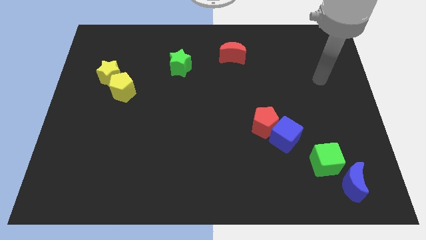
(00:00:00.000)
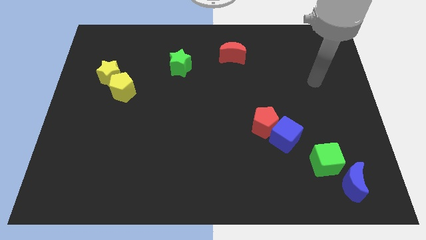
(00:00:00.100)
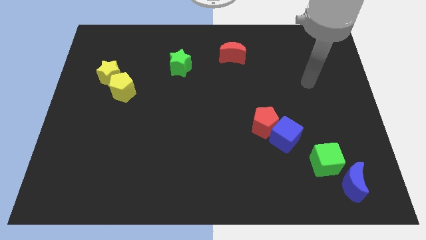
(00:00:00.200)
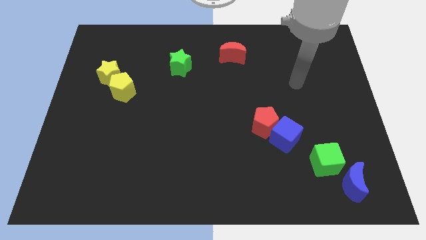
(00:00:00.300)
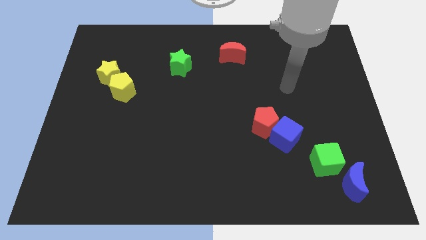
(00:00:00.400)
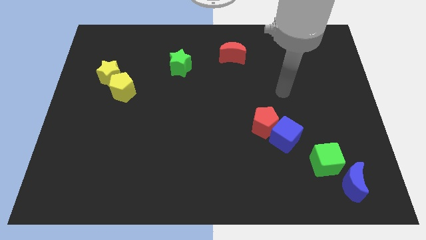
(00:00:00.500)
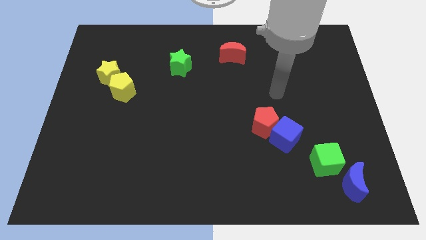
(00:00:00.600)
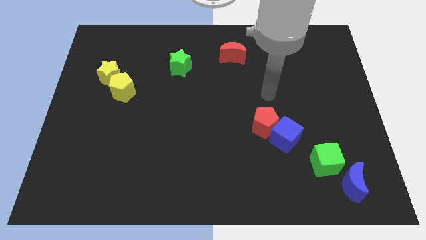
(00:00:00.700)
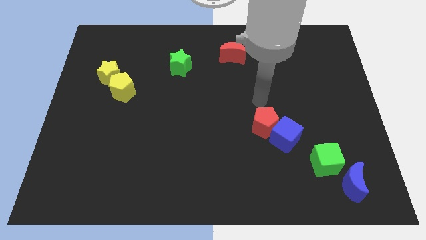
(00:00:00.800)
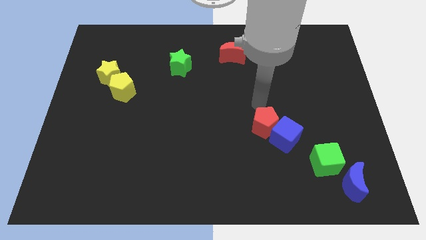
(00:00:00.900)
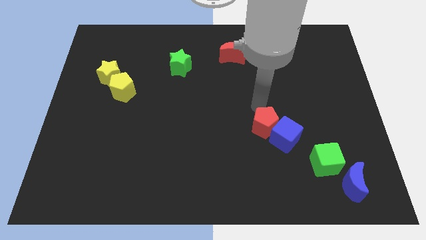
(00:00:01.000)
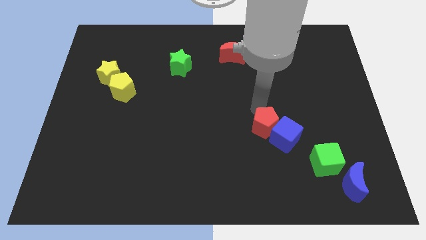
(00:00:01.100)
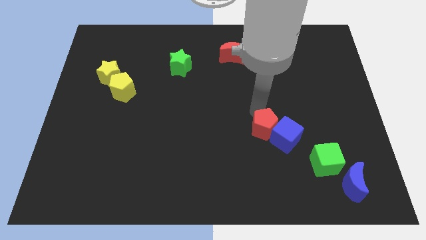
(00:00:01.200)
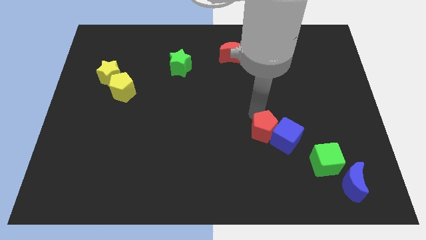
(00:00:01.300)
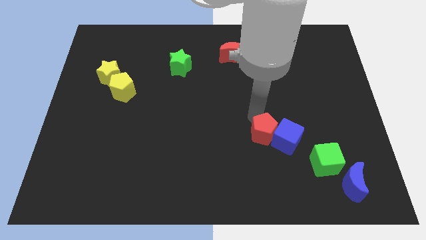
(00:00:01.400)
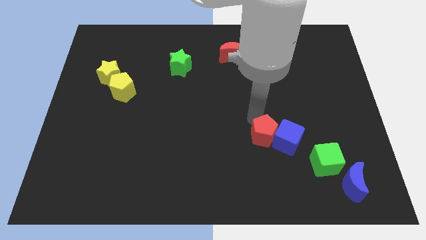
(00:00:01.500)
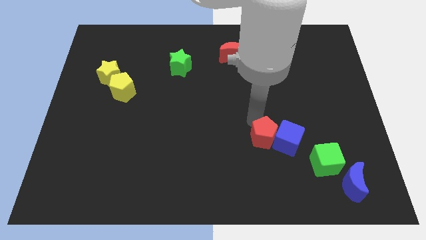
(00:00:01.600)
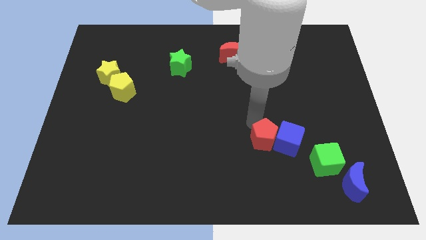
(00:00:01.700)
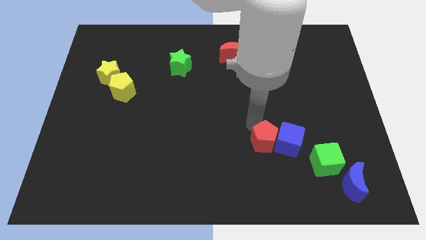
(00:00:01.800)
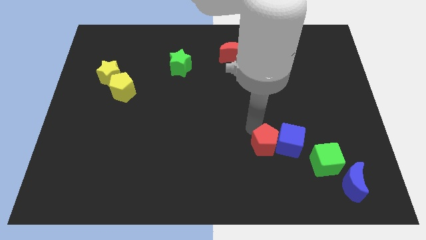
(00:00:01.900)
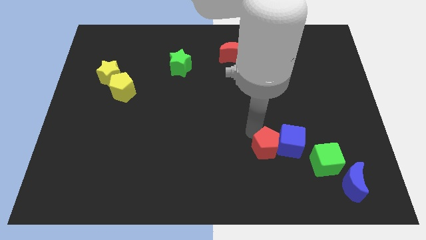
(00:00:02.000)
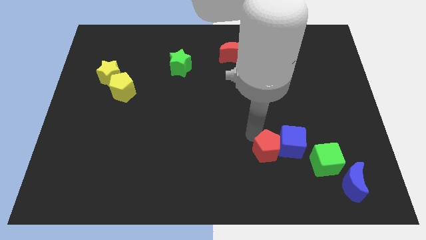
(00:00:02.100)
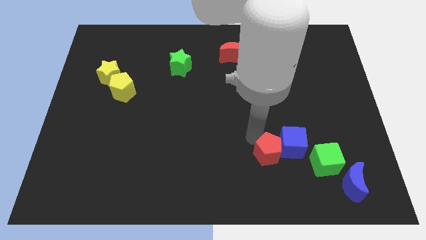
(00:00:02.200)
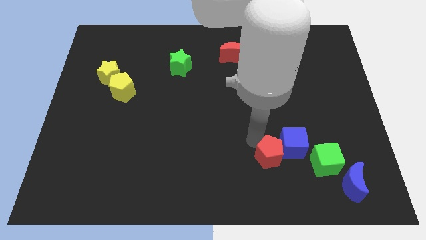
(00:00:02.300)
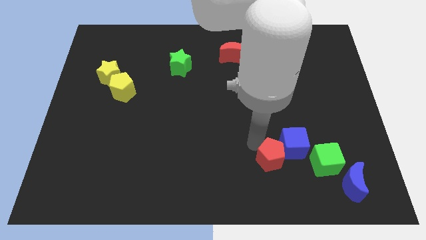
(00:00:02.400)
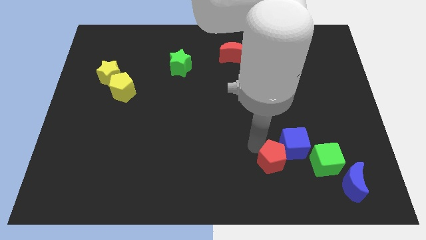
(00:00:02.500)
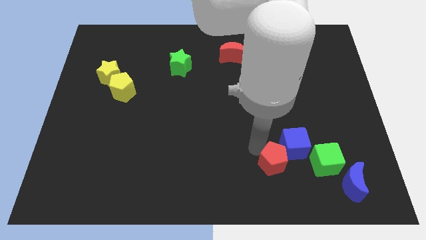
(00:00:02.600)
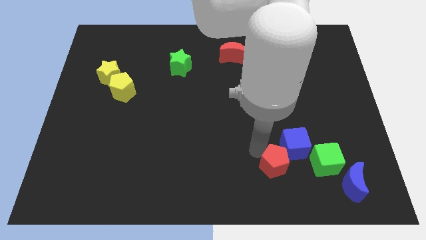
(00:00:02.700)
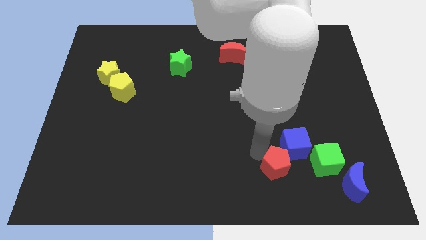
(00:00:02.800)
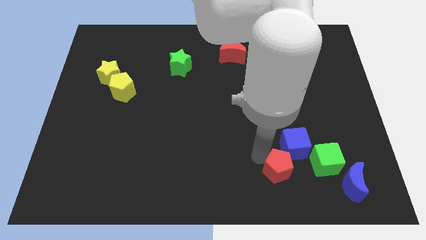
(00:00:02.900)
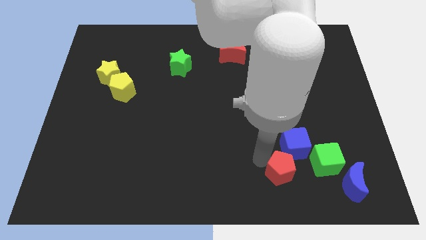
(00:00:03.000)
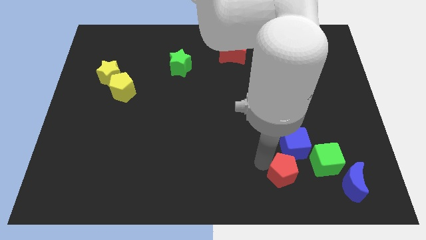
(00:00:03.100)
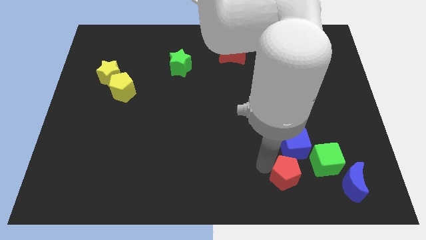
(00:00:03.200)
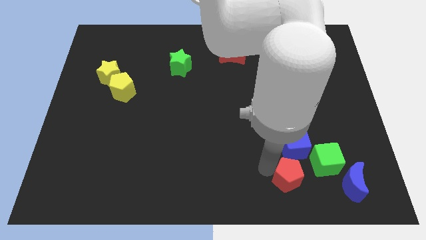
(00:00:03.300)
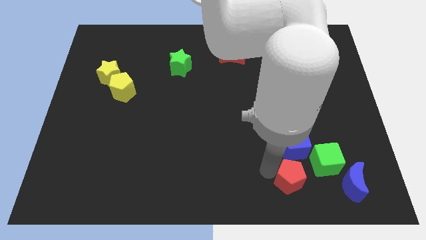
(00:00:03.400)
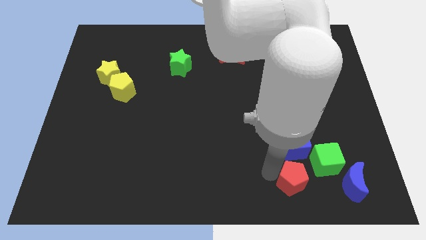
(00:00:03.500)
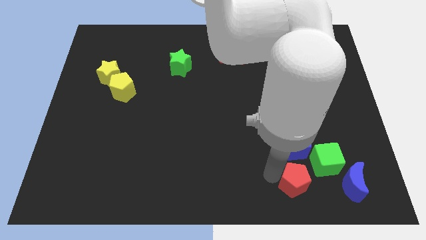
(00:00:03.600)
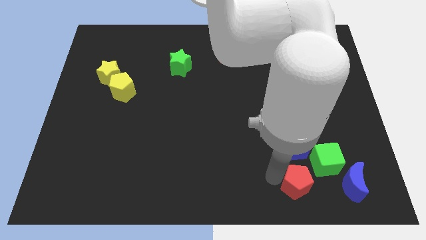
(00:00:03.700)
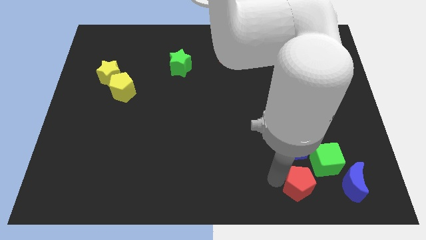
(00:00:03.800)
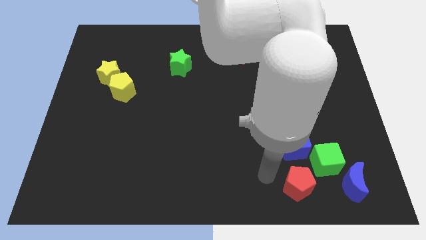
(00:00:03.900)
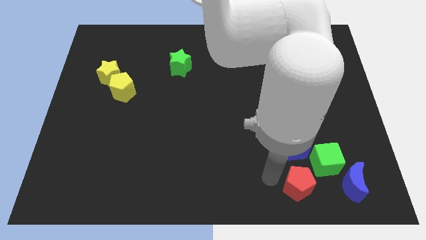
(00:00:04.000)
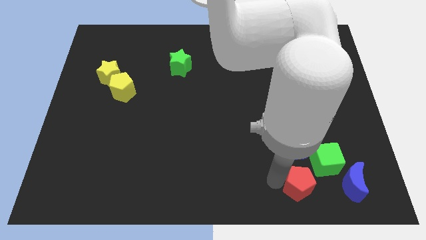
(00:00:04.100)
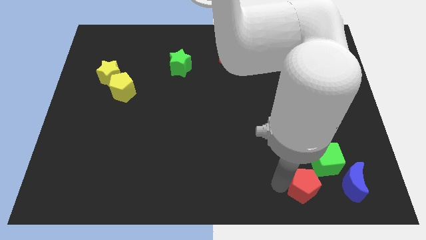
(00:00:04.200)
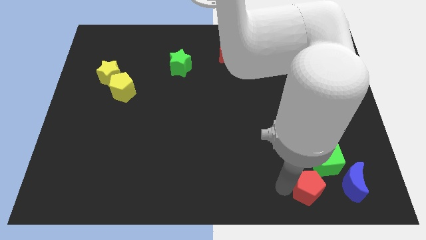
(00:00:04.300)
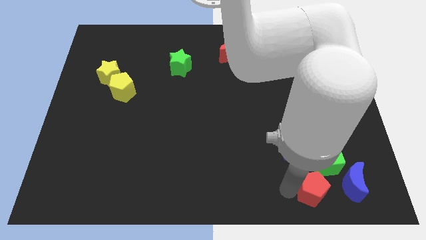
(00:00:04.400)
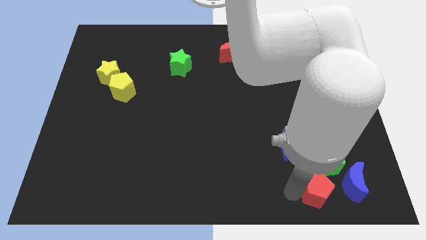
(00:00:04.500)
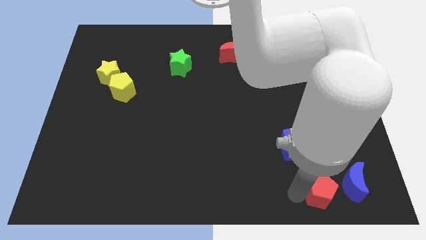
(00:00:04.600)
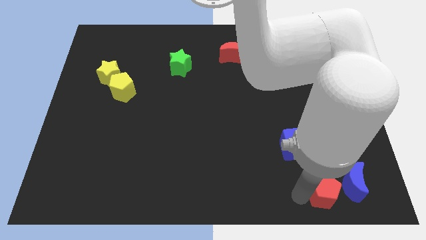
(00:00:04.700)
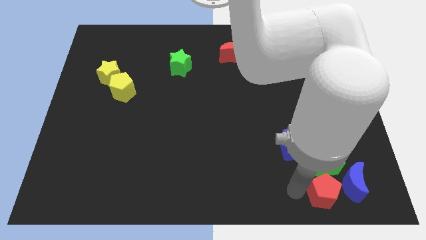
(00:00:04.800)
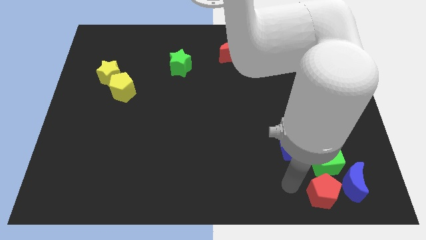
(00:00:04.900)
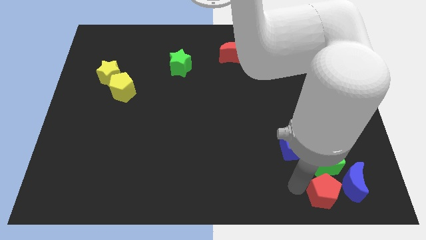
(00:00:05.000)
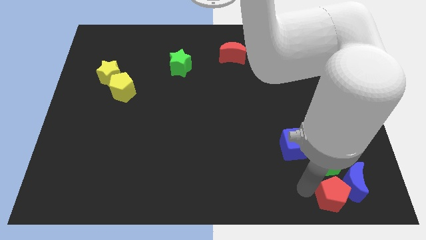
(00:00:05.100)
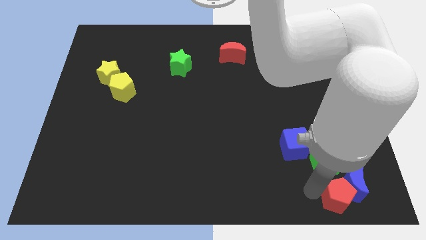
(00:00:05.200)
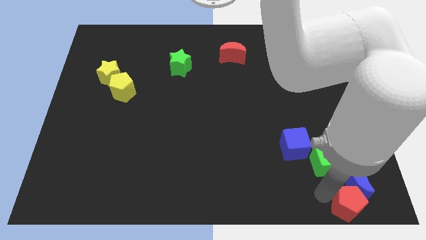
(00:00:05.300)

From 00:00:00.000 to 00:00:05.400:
move the red pentagon to the bottom right of the board

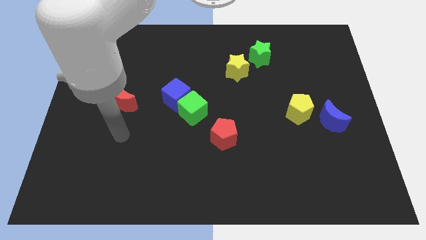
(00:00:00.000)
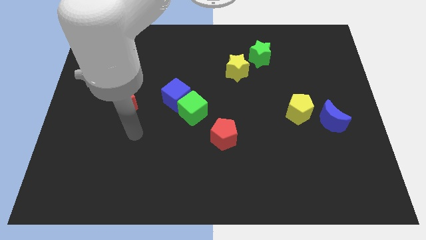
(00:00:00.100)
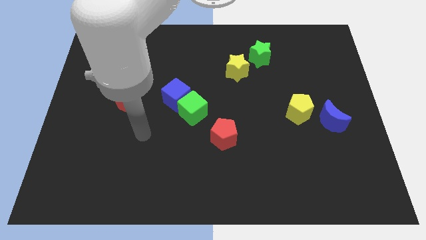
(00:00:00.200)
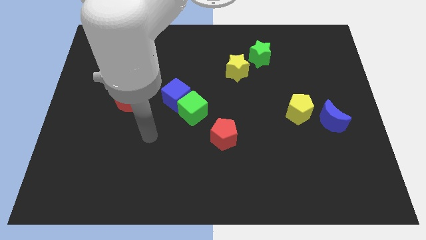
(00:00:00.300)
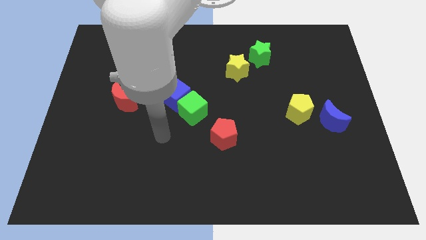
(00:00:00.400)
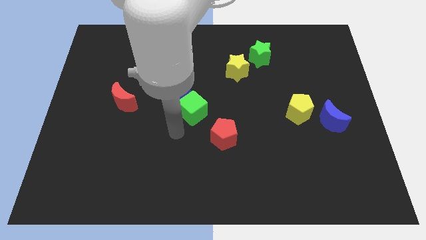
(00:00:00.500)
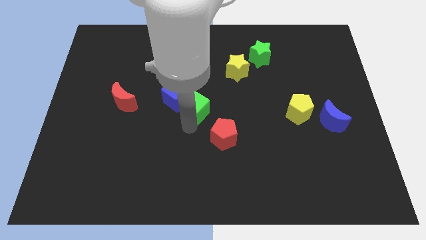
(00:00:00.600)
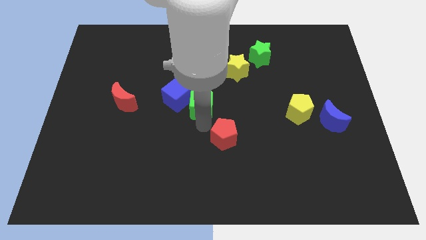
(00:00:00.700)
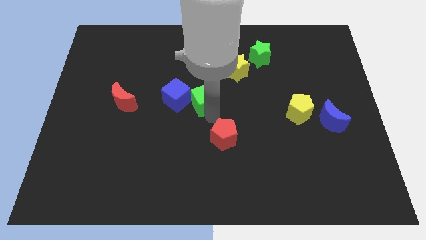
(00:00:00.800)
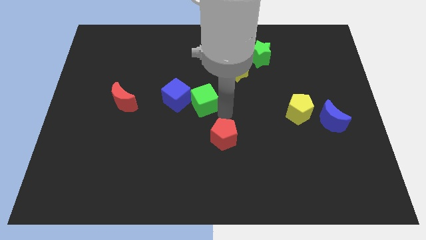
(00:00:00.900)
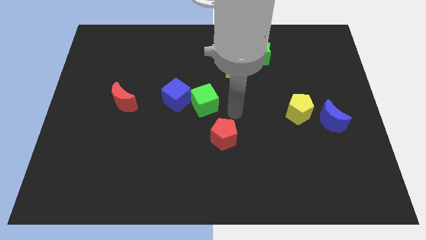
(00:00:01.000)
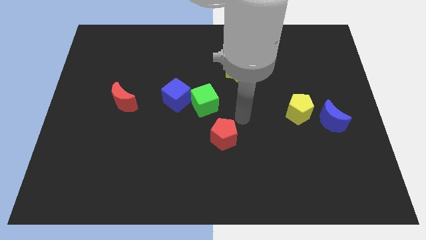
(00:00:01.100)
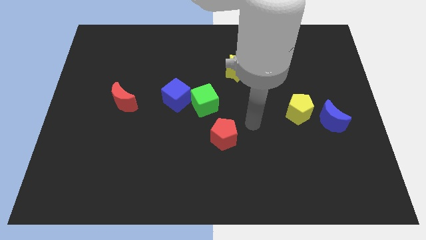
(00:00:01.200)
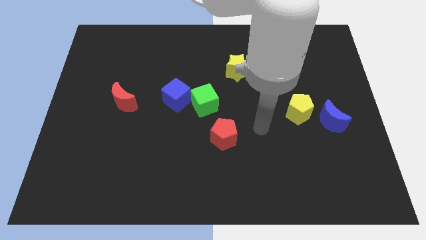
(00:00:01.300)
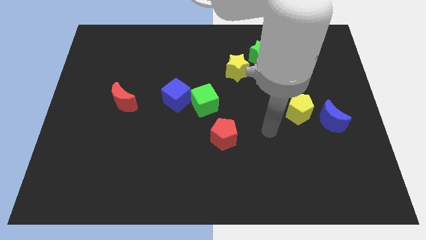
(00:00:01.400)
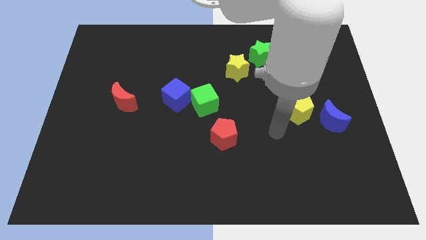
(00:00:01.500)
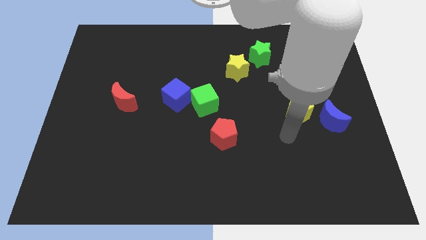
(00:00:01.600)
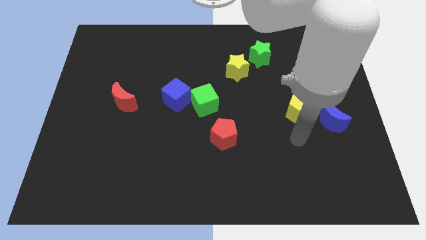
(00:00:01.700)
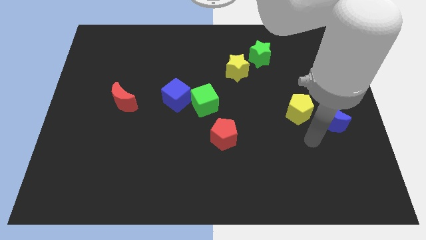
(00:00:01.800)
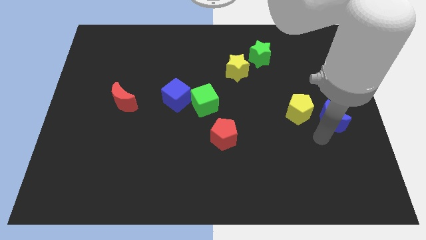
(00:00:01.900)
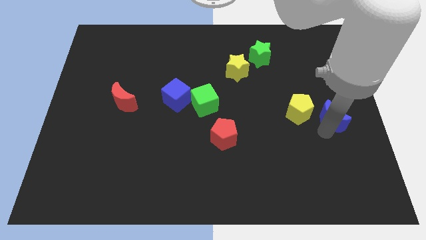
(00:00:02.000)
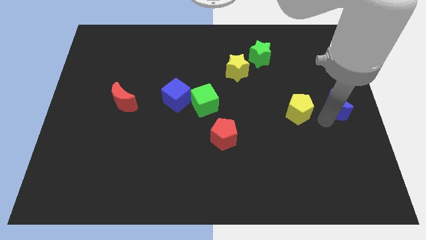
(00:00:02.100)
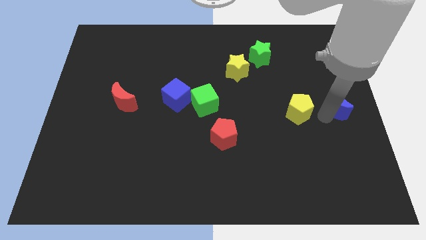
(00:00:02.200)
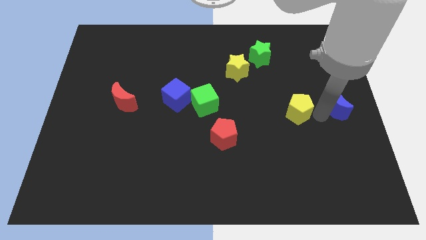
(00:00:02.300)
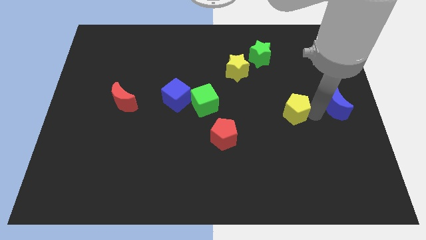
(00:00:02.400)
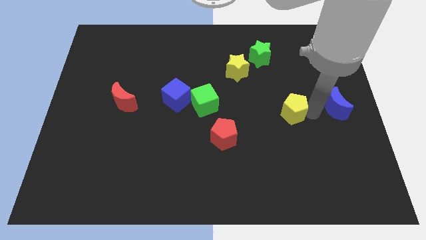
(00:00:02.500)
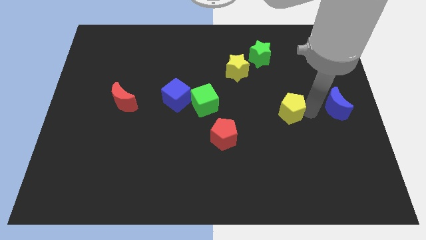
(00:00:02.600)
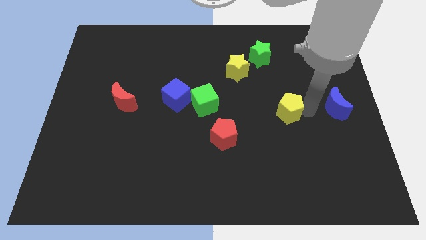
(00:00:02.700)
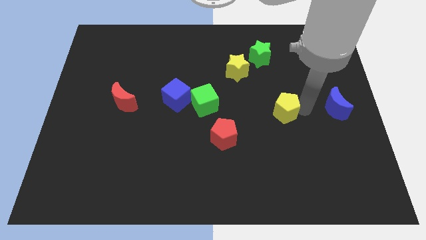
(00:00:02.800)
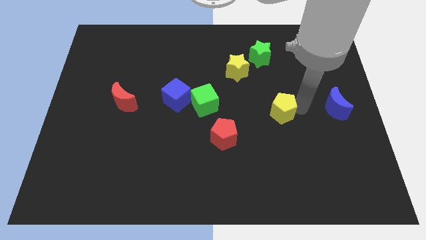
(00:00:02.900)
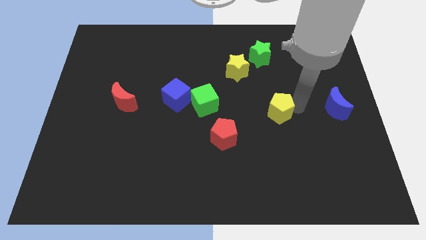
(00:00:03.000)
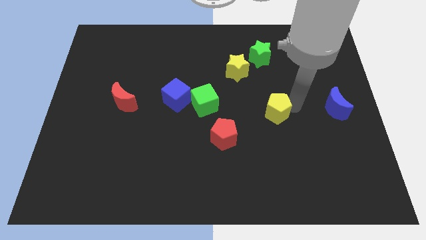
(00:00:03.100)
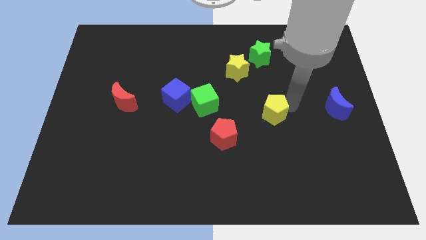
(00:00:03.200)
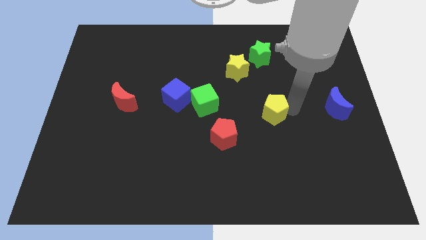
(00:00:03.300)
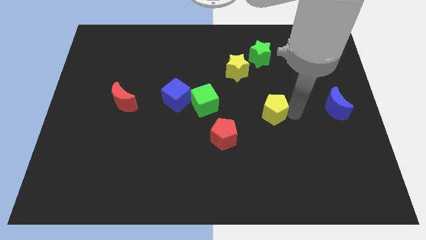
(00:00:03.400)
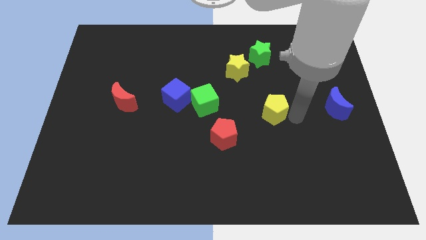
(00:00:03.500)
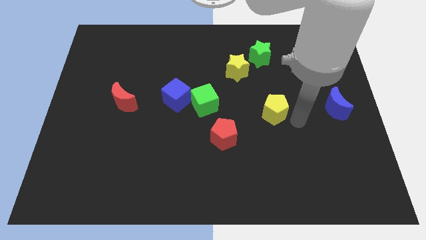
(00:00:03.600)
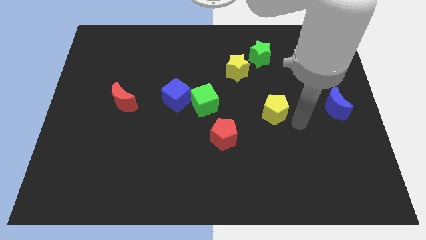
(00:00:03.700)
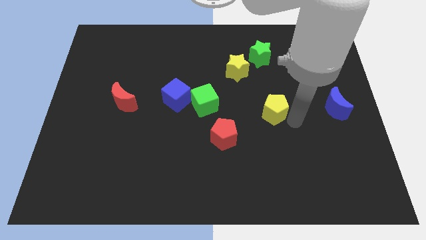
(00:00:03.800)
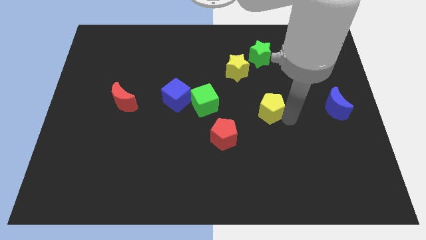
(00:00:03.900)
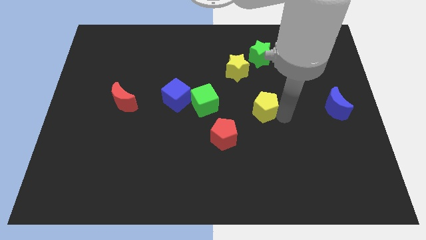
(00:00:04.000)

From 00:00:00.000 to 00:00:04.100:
push the yellow pentagon to the middle of the board
